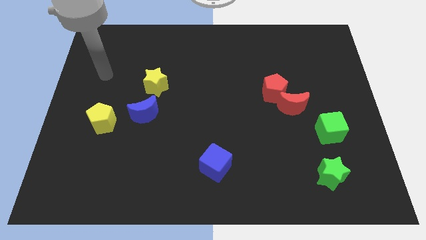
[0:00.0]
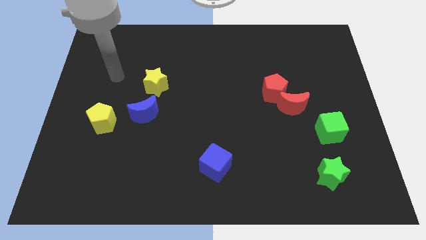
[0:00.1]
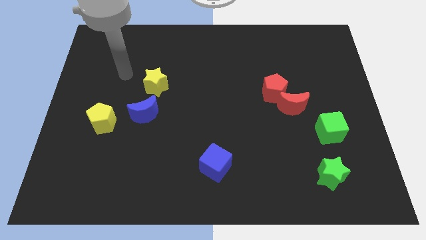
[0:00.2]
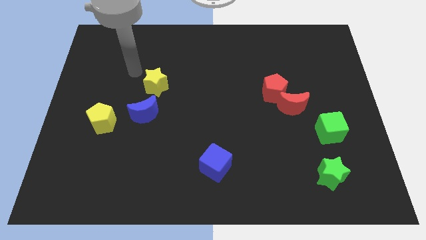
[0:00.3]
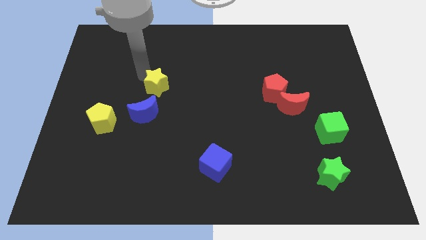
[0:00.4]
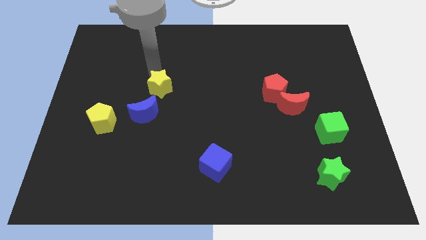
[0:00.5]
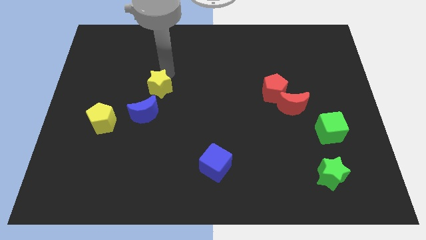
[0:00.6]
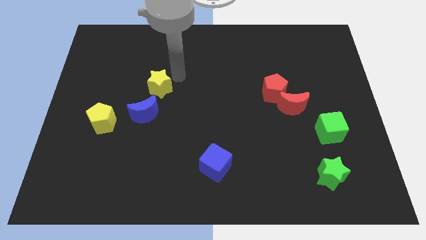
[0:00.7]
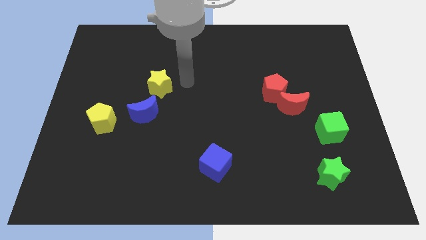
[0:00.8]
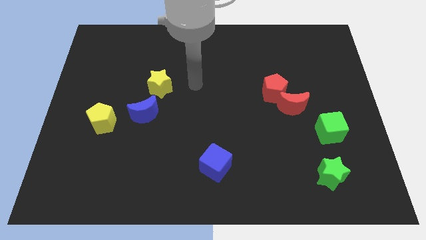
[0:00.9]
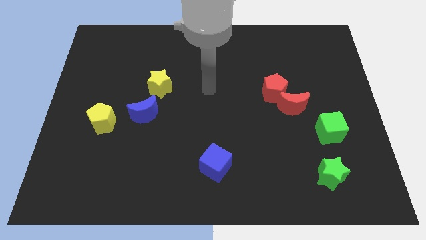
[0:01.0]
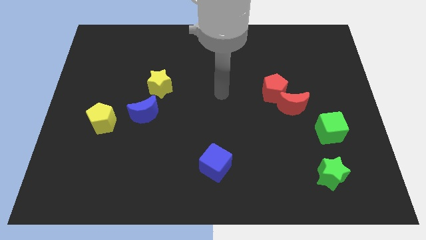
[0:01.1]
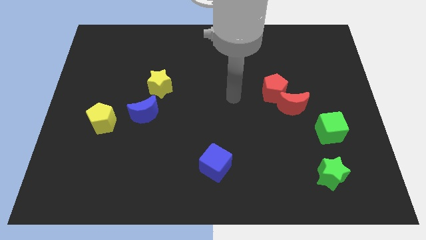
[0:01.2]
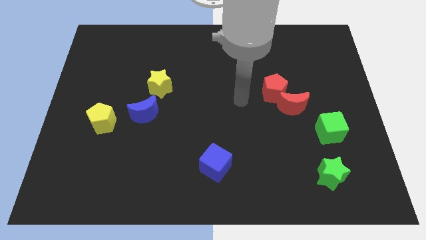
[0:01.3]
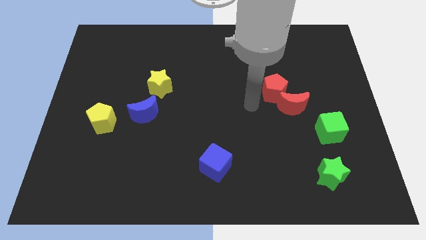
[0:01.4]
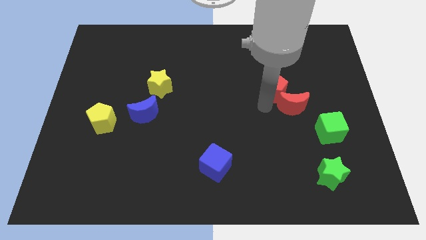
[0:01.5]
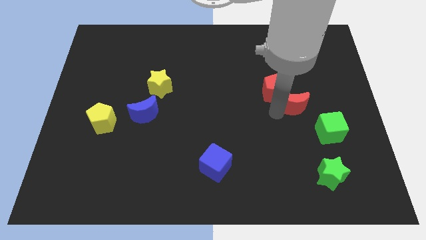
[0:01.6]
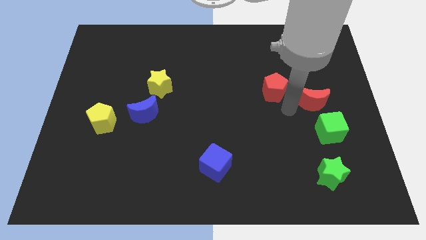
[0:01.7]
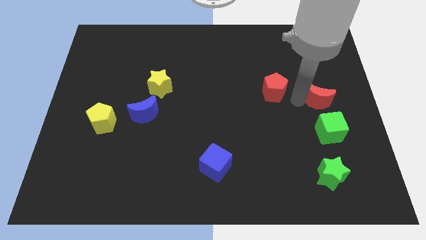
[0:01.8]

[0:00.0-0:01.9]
move the red pentagon away from the red moon

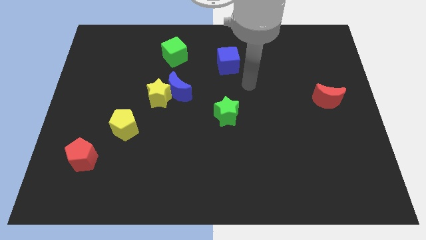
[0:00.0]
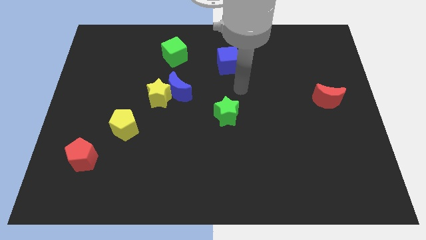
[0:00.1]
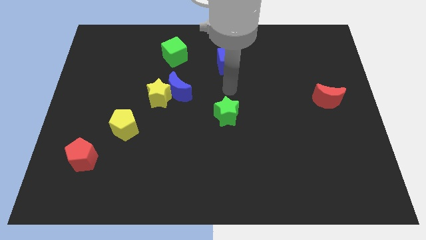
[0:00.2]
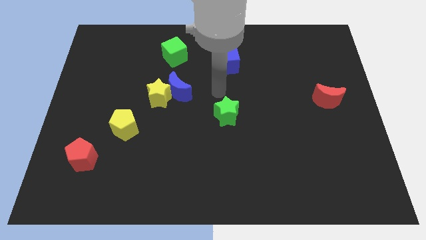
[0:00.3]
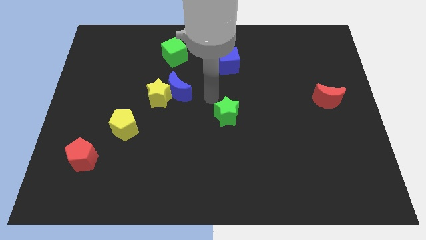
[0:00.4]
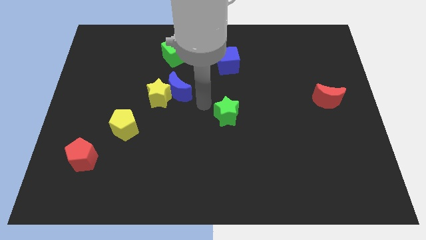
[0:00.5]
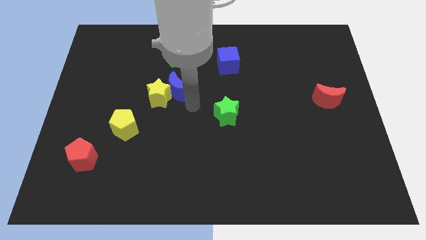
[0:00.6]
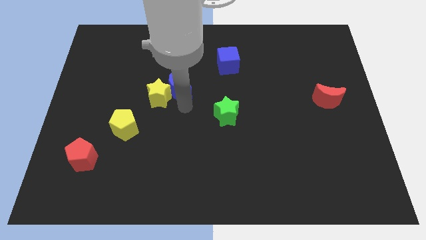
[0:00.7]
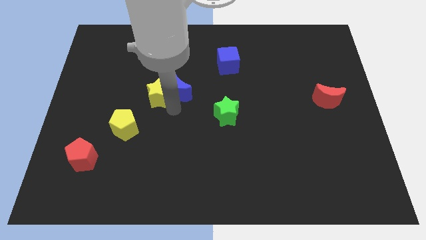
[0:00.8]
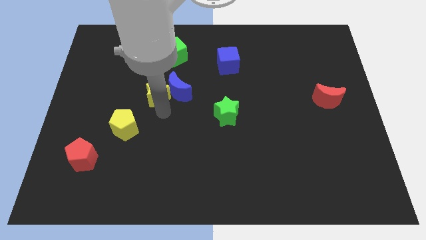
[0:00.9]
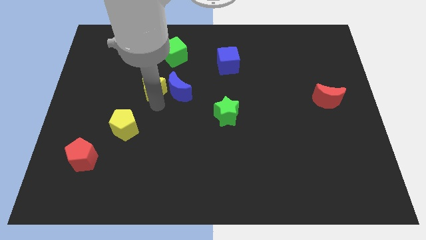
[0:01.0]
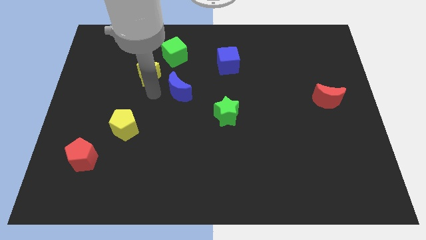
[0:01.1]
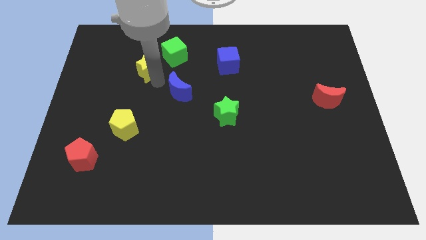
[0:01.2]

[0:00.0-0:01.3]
separate the blue moon from the yellow star

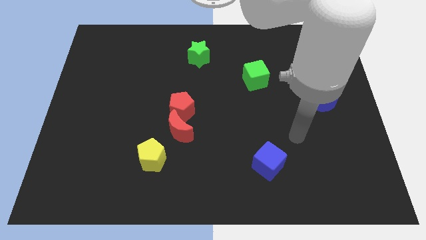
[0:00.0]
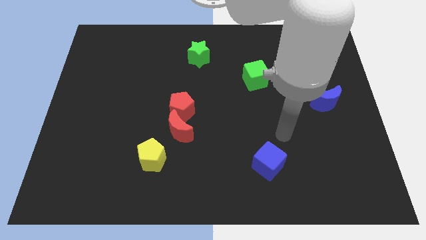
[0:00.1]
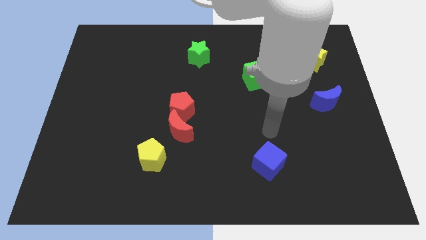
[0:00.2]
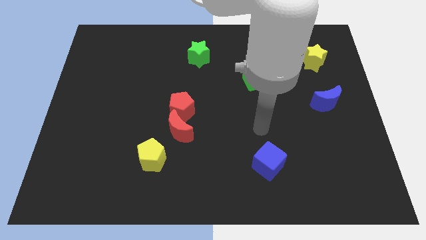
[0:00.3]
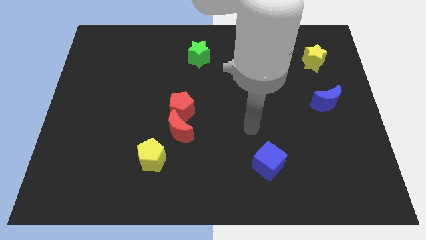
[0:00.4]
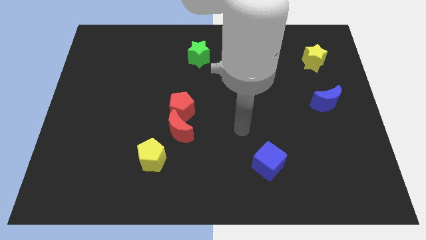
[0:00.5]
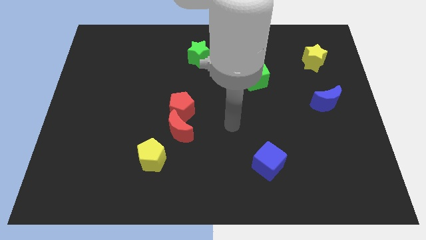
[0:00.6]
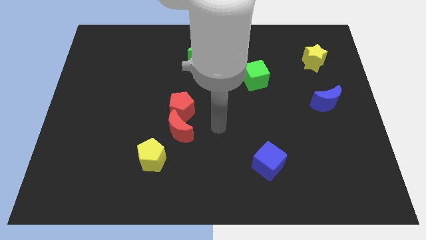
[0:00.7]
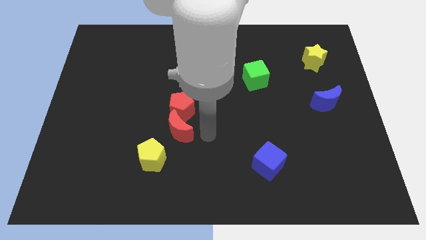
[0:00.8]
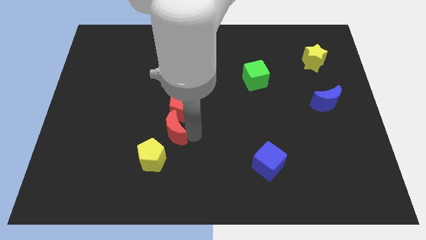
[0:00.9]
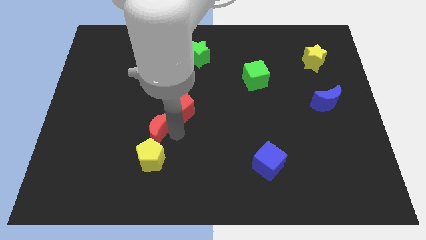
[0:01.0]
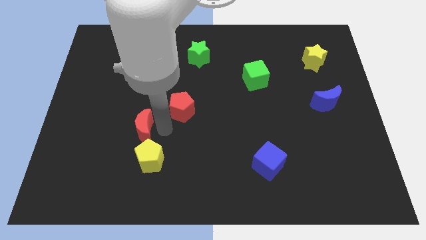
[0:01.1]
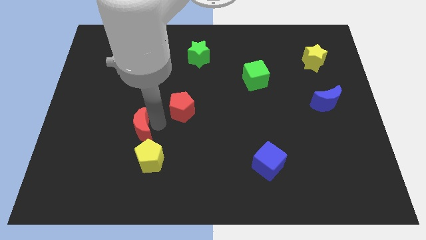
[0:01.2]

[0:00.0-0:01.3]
separate the red pentagon from the red moon

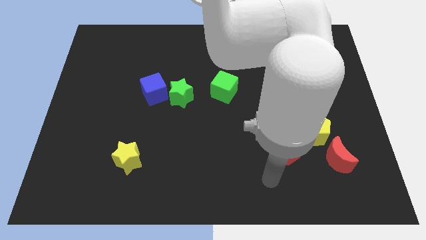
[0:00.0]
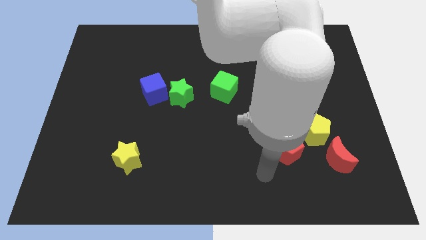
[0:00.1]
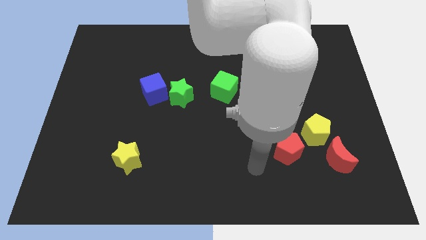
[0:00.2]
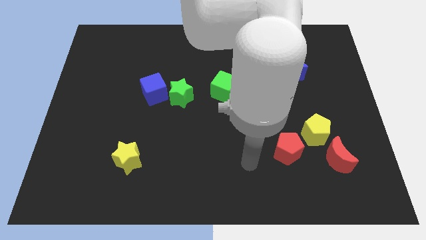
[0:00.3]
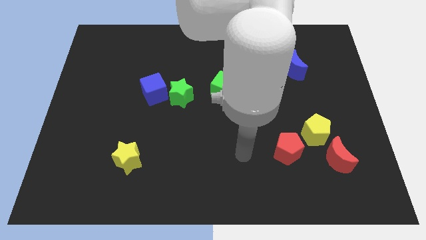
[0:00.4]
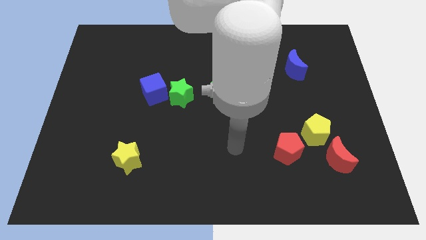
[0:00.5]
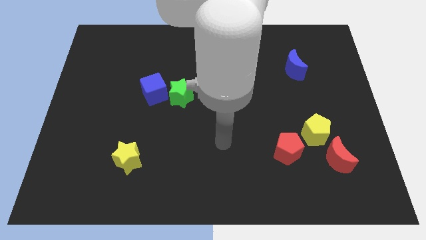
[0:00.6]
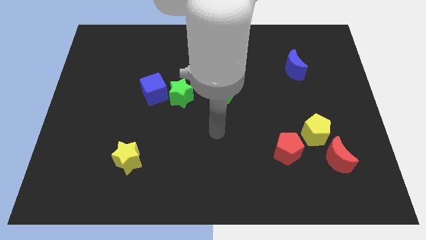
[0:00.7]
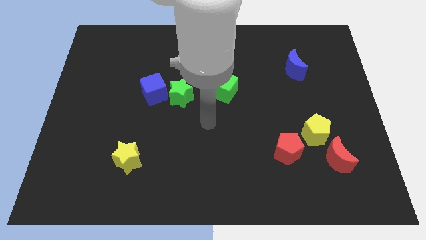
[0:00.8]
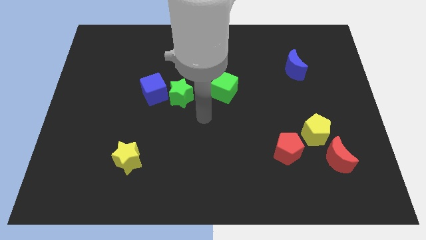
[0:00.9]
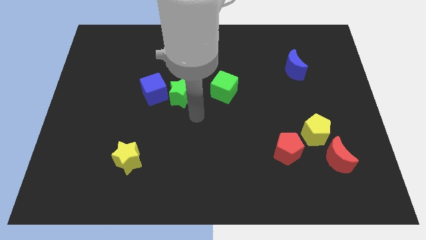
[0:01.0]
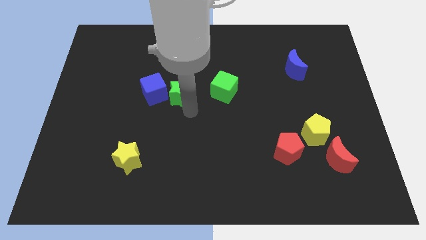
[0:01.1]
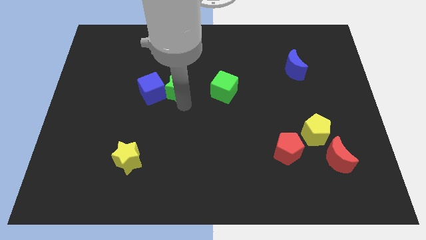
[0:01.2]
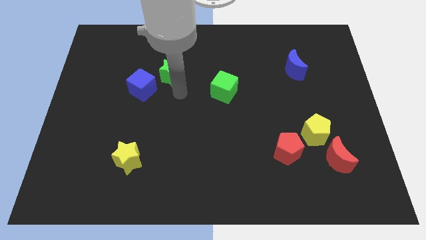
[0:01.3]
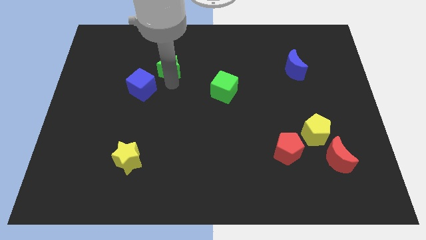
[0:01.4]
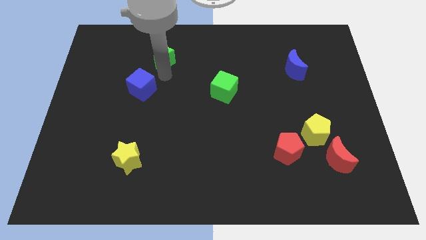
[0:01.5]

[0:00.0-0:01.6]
pull the blue cube apart from the green star

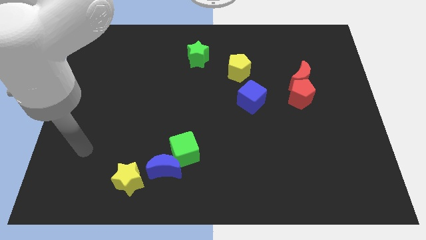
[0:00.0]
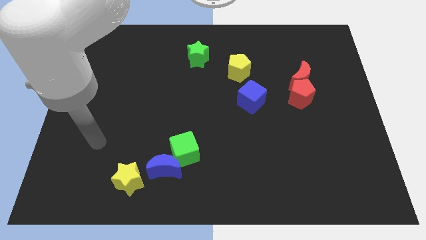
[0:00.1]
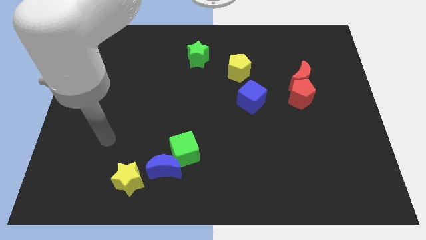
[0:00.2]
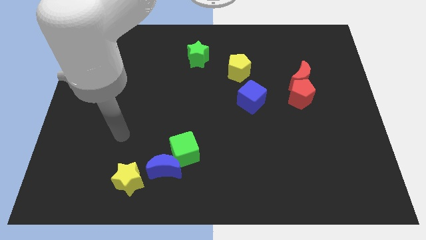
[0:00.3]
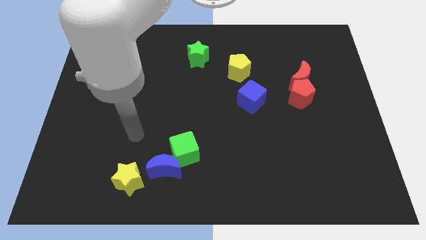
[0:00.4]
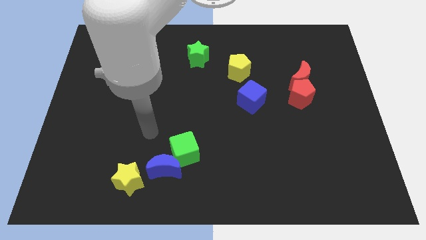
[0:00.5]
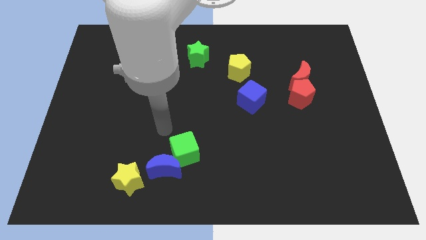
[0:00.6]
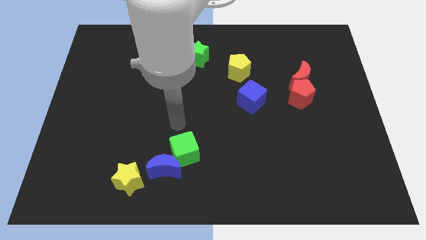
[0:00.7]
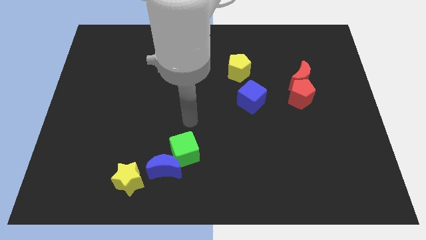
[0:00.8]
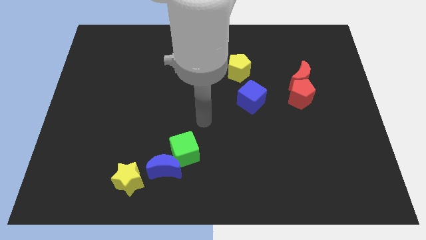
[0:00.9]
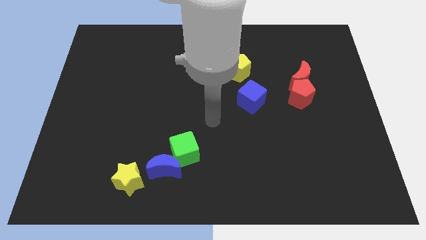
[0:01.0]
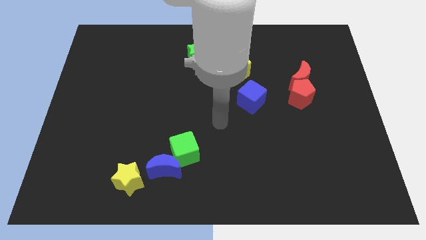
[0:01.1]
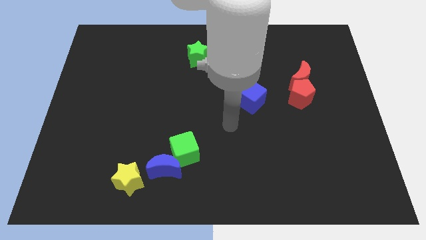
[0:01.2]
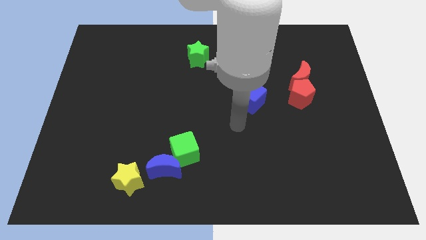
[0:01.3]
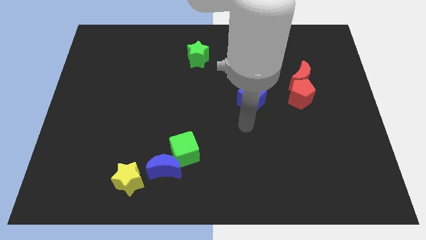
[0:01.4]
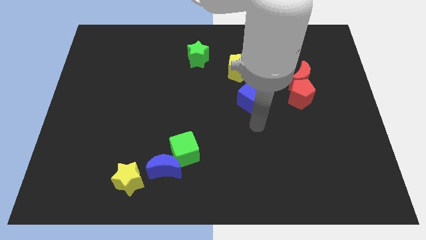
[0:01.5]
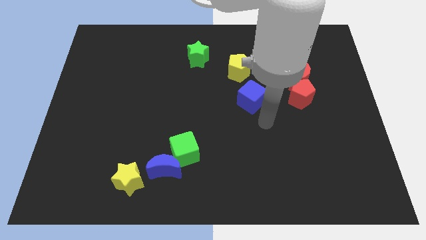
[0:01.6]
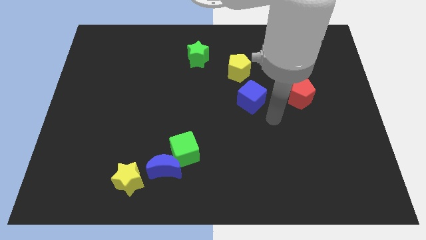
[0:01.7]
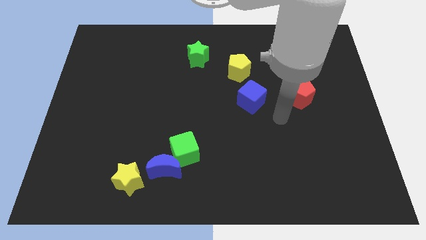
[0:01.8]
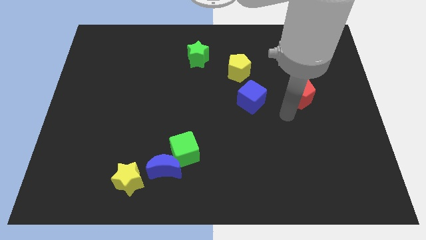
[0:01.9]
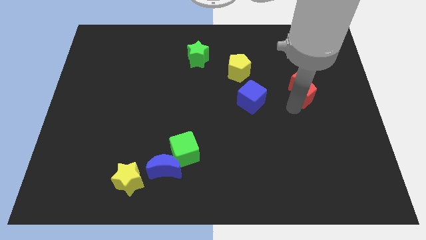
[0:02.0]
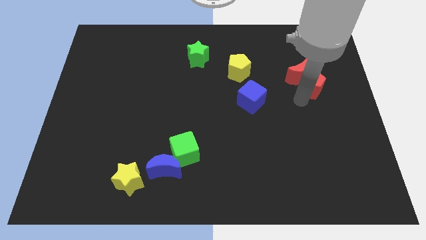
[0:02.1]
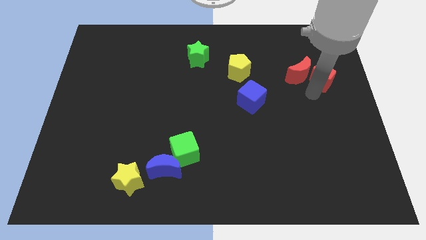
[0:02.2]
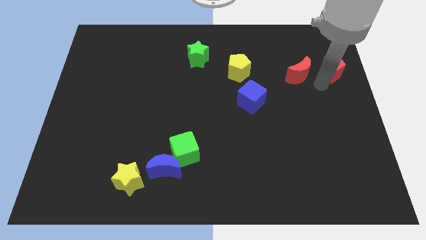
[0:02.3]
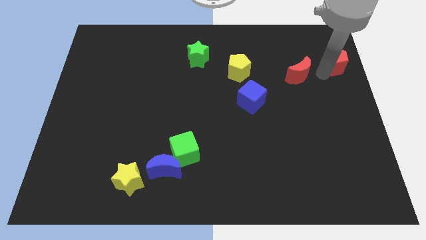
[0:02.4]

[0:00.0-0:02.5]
separate the red moon from the red pentagon

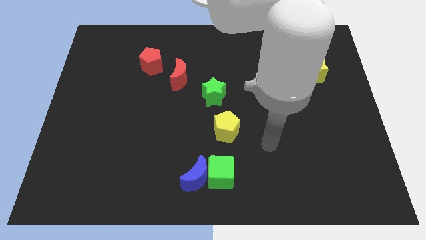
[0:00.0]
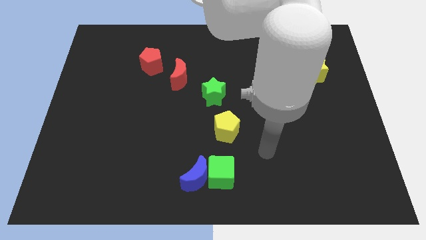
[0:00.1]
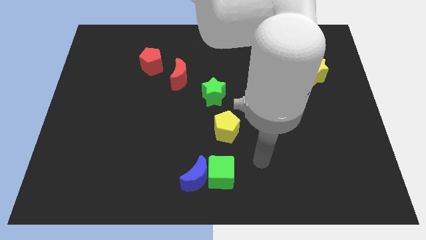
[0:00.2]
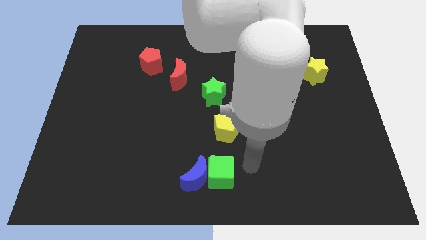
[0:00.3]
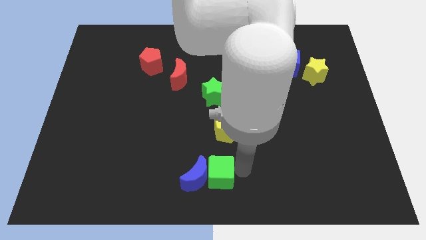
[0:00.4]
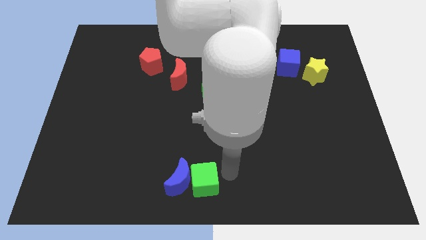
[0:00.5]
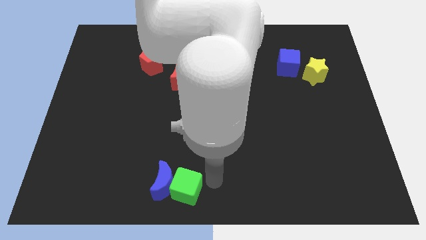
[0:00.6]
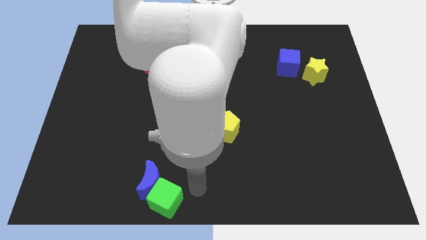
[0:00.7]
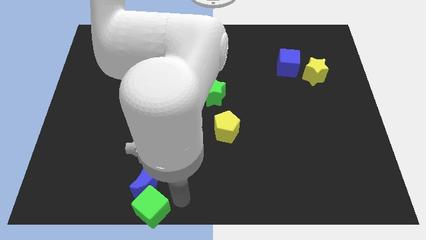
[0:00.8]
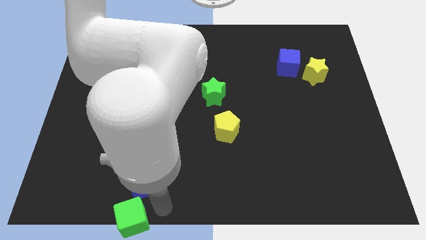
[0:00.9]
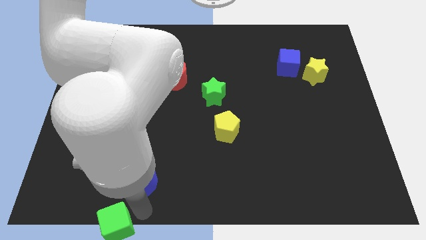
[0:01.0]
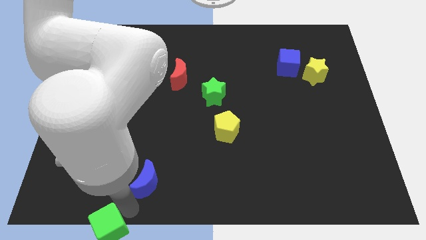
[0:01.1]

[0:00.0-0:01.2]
move the blue moon away from the green cube
